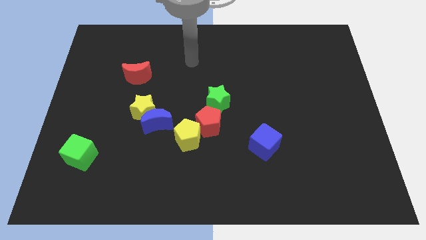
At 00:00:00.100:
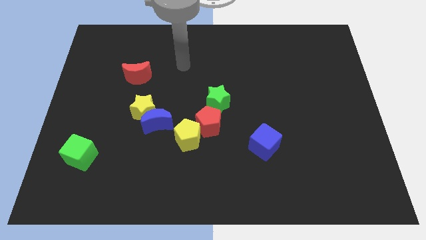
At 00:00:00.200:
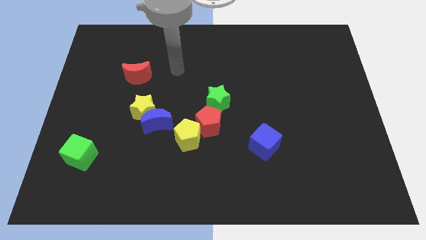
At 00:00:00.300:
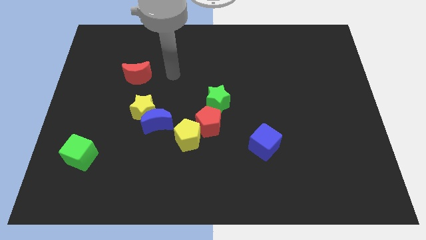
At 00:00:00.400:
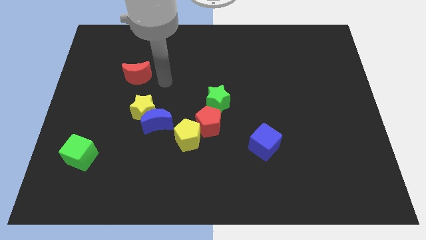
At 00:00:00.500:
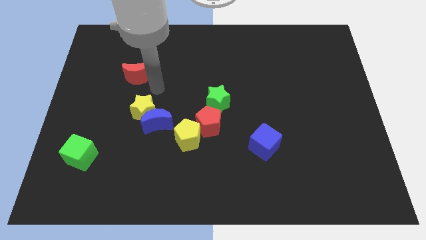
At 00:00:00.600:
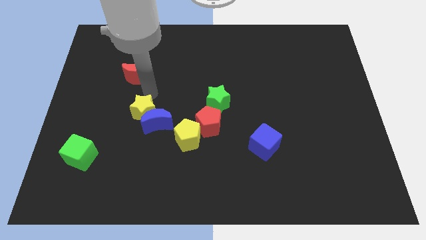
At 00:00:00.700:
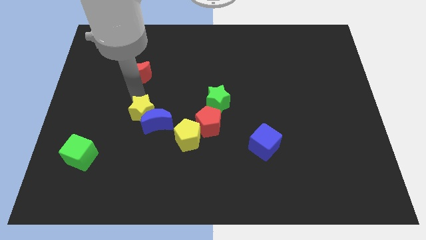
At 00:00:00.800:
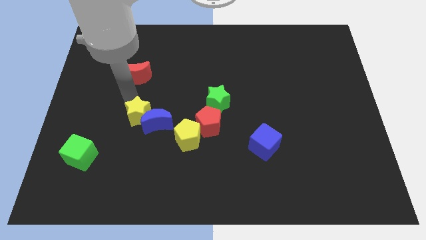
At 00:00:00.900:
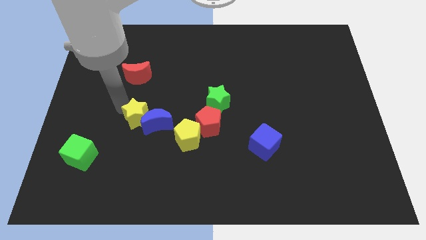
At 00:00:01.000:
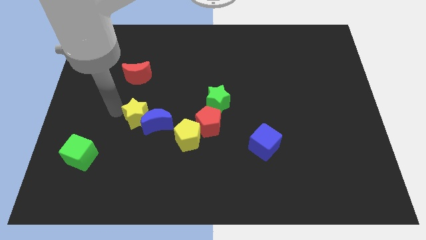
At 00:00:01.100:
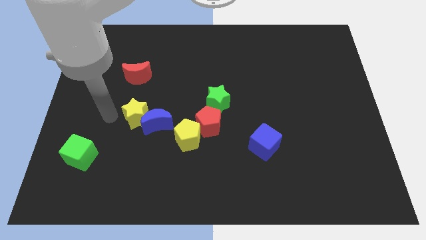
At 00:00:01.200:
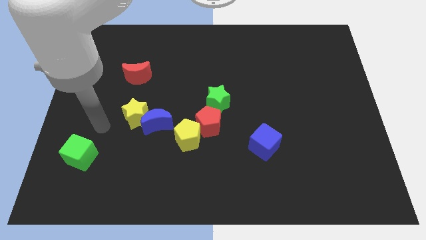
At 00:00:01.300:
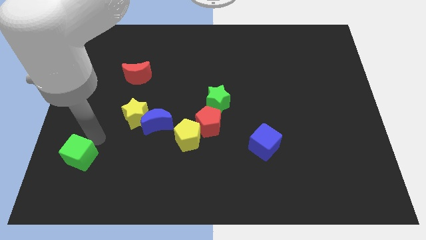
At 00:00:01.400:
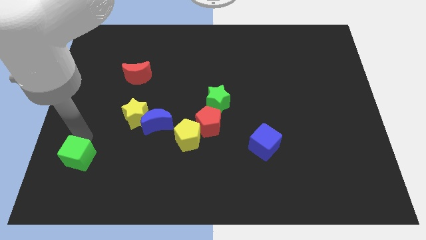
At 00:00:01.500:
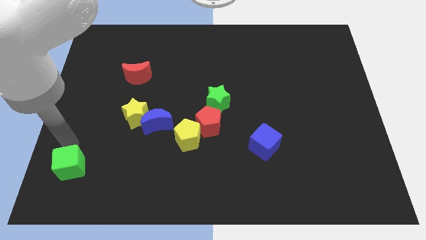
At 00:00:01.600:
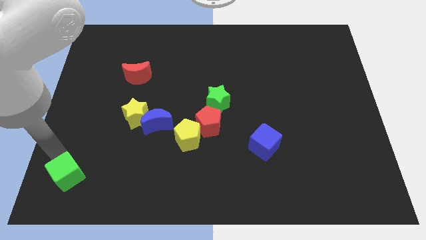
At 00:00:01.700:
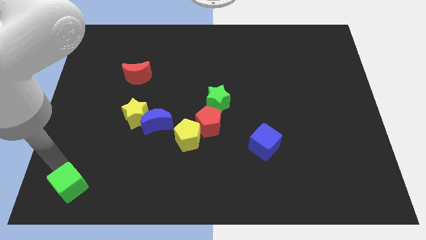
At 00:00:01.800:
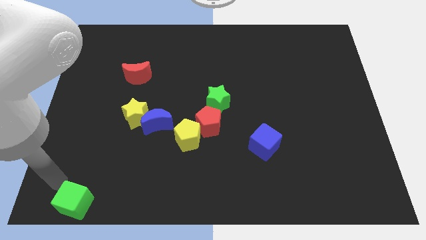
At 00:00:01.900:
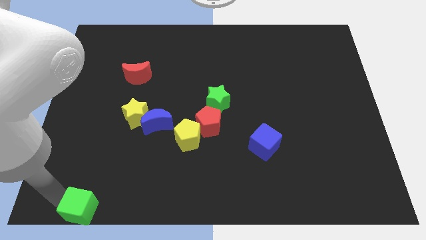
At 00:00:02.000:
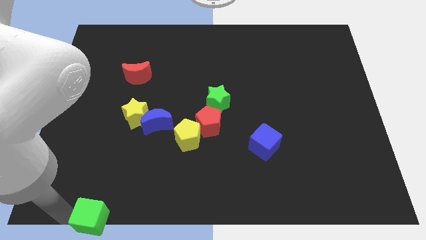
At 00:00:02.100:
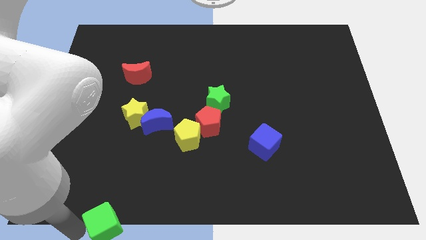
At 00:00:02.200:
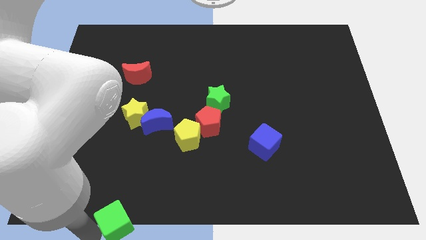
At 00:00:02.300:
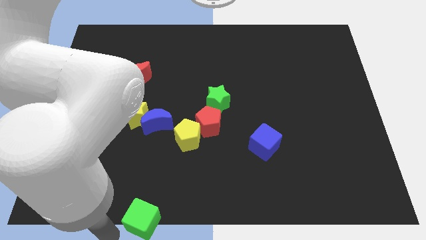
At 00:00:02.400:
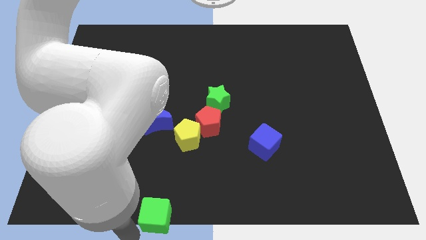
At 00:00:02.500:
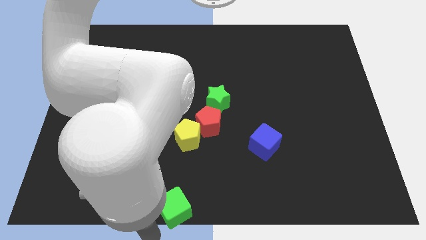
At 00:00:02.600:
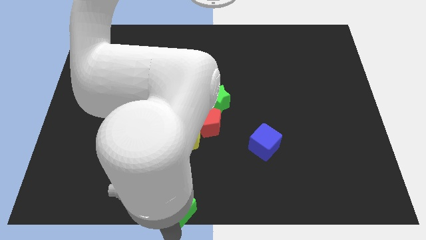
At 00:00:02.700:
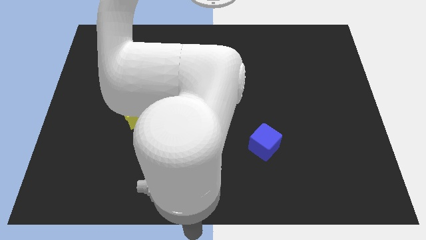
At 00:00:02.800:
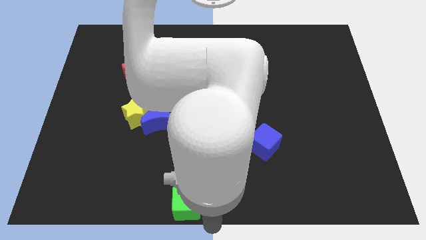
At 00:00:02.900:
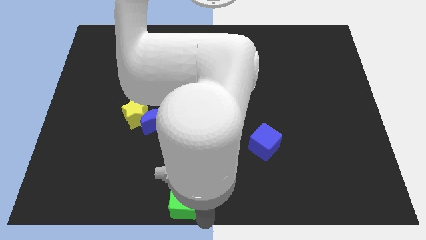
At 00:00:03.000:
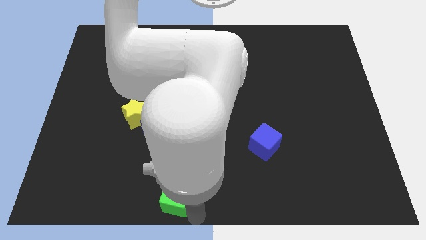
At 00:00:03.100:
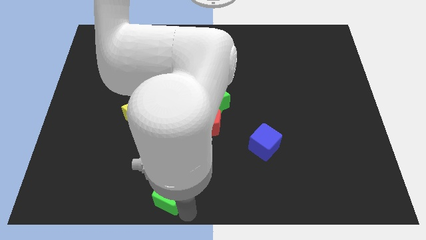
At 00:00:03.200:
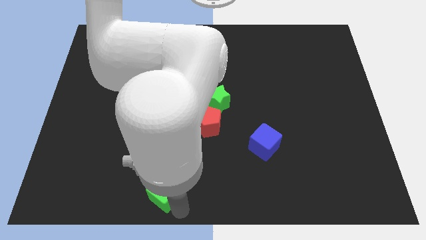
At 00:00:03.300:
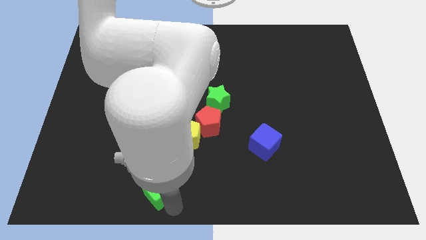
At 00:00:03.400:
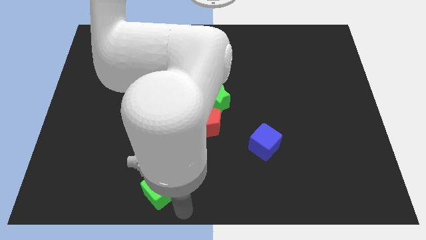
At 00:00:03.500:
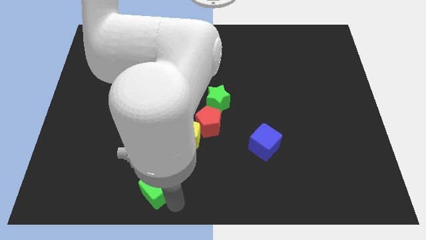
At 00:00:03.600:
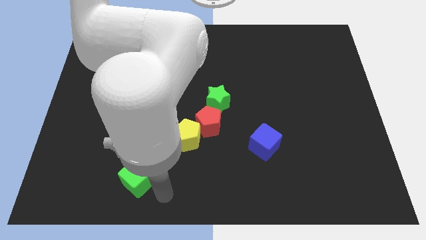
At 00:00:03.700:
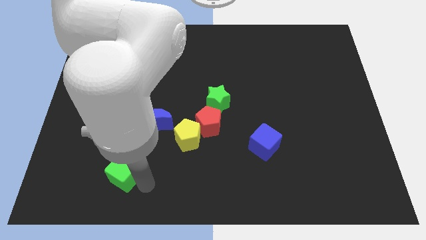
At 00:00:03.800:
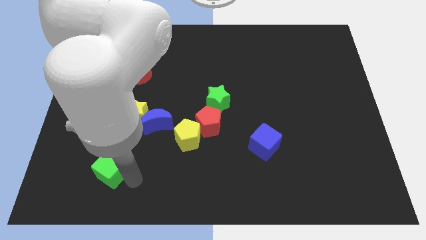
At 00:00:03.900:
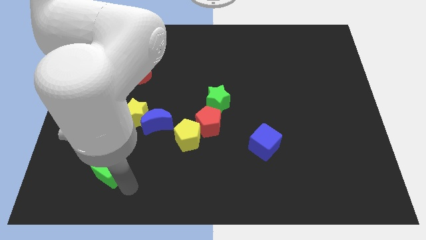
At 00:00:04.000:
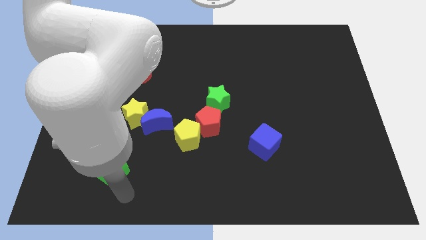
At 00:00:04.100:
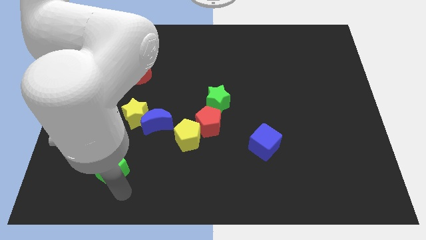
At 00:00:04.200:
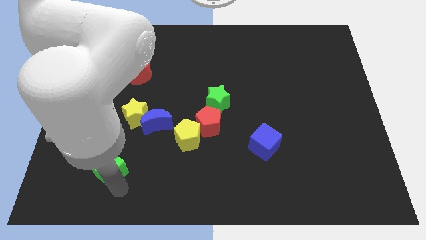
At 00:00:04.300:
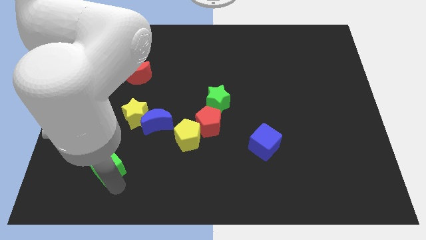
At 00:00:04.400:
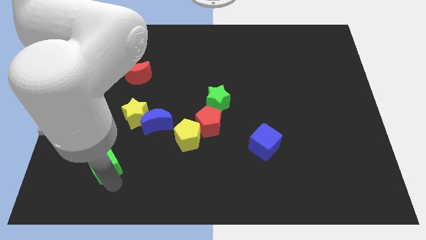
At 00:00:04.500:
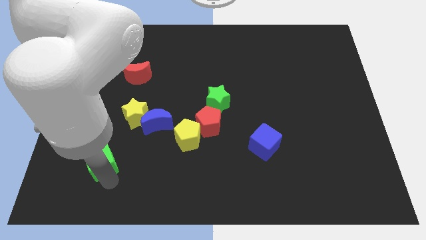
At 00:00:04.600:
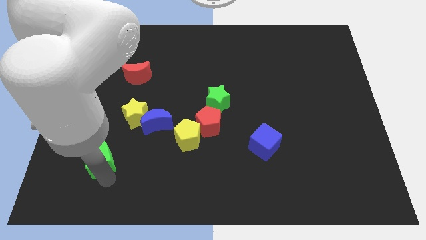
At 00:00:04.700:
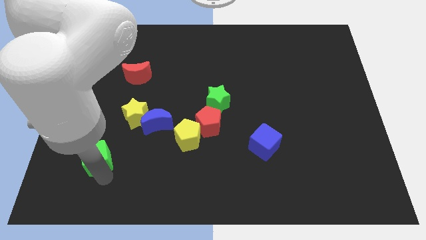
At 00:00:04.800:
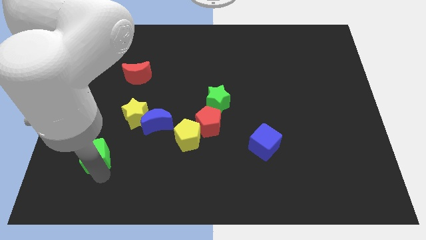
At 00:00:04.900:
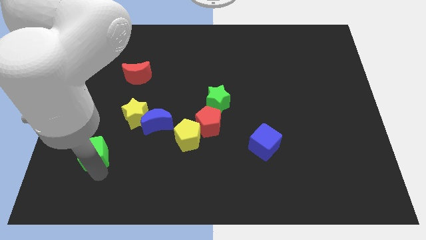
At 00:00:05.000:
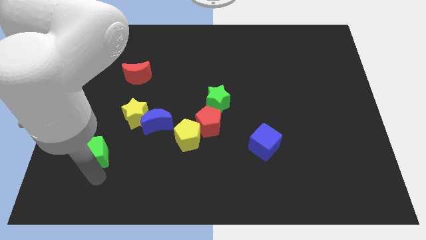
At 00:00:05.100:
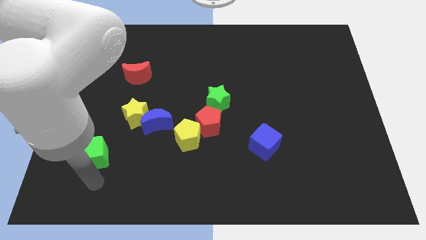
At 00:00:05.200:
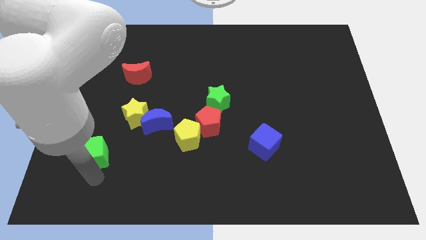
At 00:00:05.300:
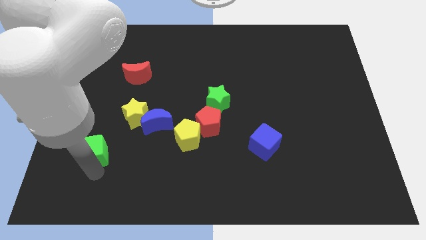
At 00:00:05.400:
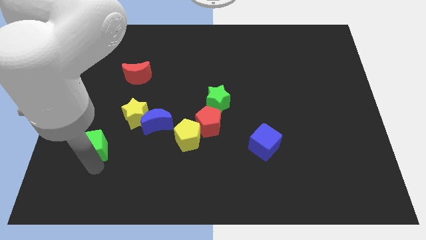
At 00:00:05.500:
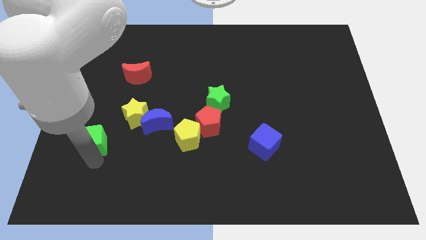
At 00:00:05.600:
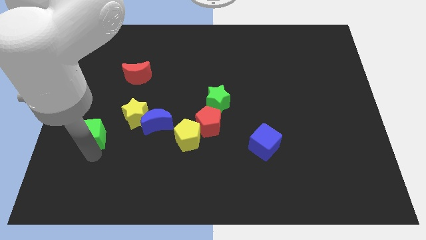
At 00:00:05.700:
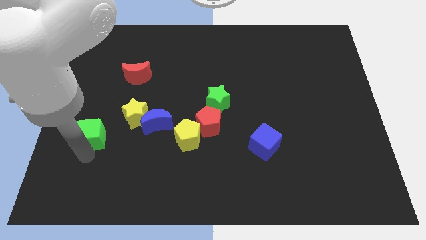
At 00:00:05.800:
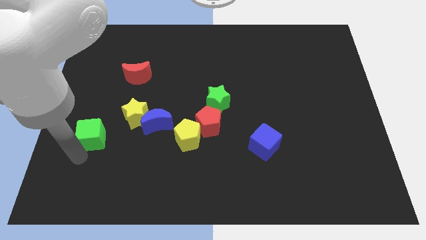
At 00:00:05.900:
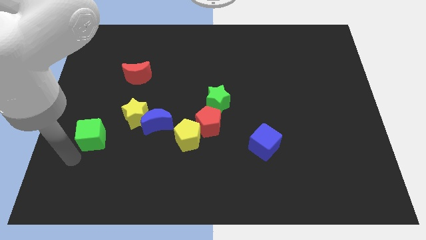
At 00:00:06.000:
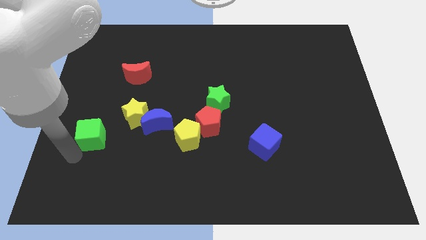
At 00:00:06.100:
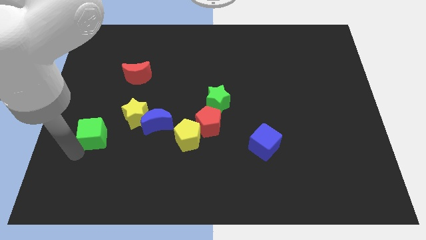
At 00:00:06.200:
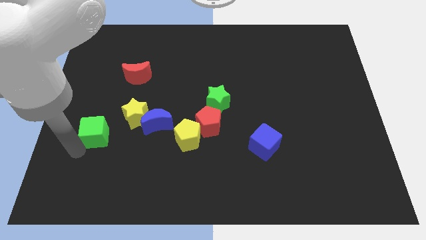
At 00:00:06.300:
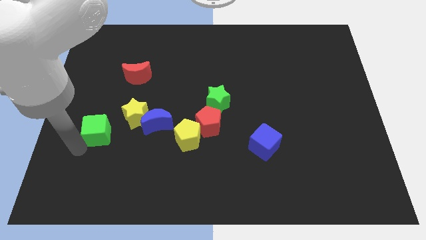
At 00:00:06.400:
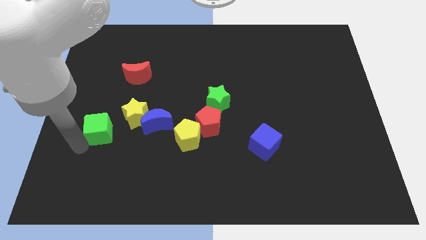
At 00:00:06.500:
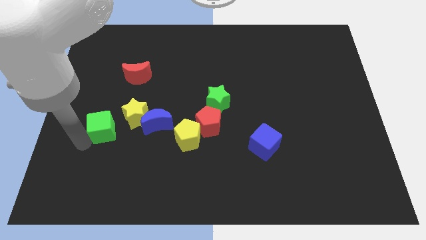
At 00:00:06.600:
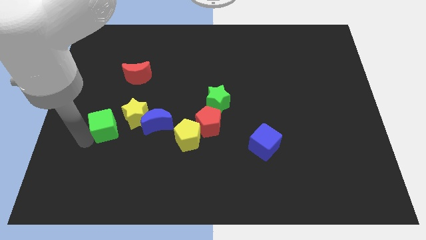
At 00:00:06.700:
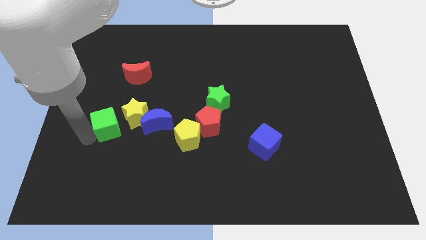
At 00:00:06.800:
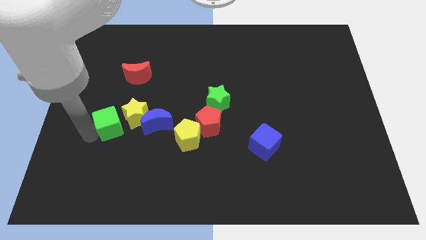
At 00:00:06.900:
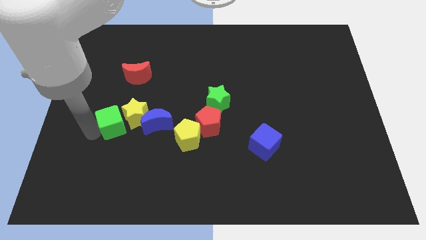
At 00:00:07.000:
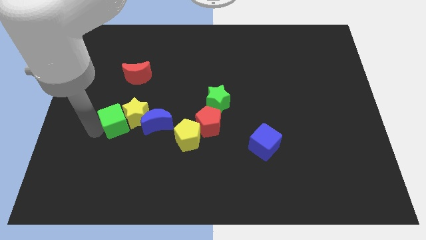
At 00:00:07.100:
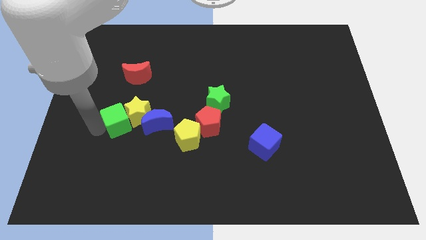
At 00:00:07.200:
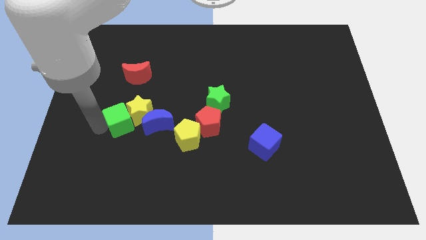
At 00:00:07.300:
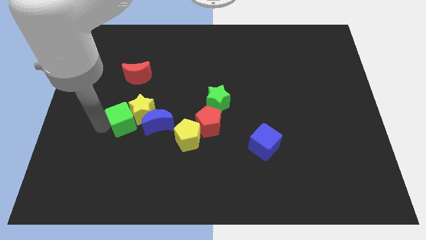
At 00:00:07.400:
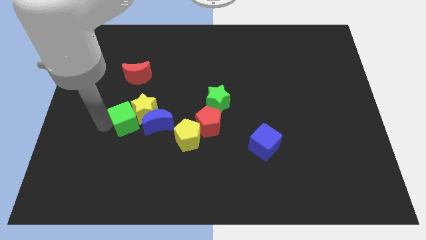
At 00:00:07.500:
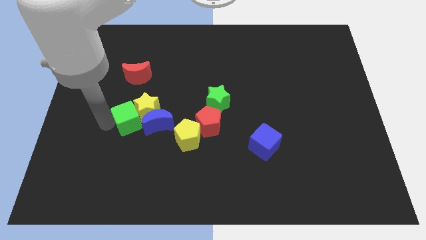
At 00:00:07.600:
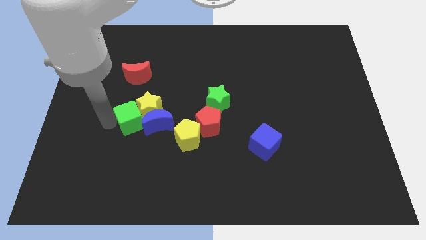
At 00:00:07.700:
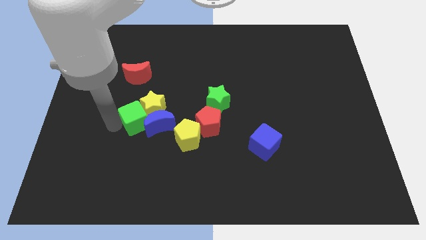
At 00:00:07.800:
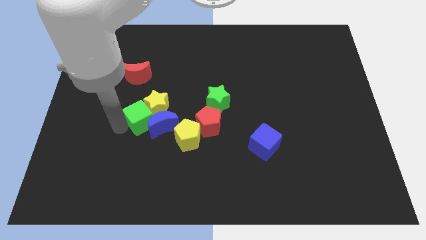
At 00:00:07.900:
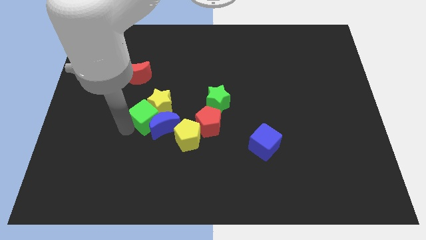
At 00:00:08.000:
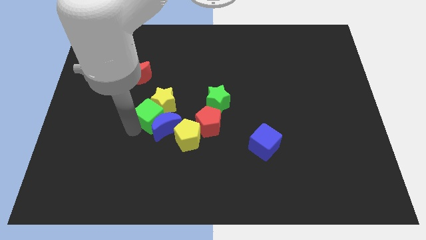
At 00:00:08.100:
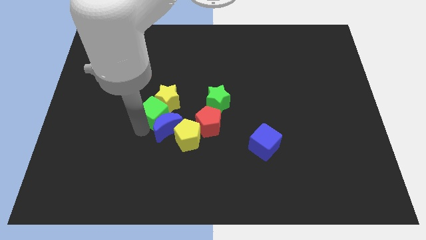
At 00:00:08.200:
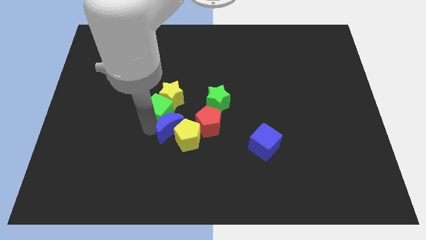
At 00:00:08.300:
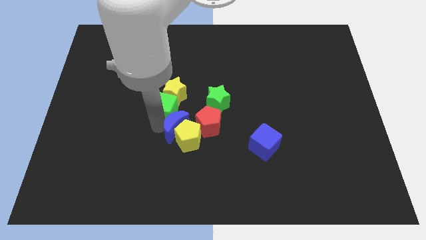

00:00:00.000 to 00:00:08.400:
move the green cube up and then right
